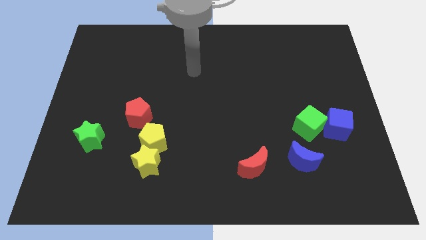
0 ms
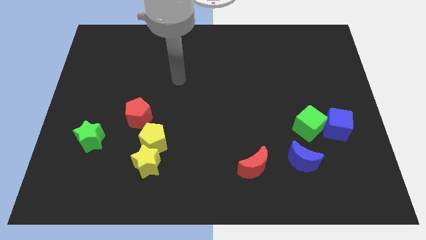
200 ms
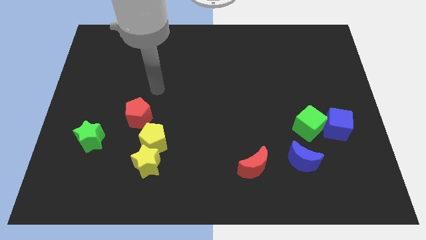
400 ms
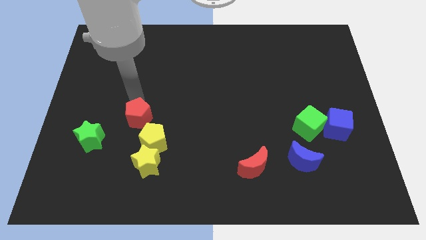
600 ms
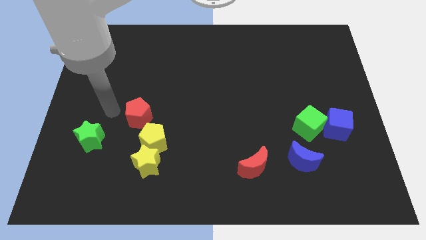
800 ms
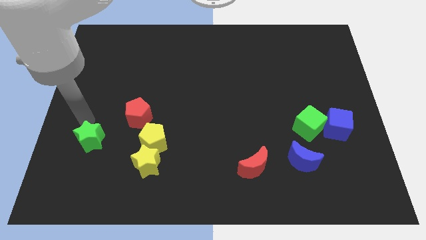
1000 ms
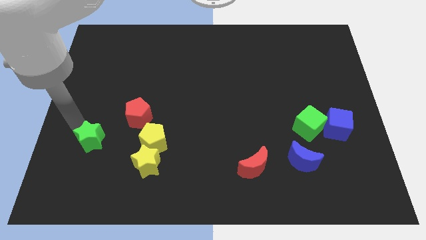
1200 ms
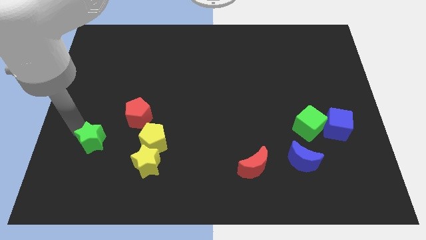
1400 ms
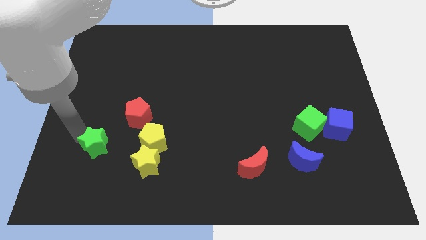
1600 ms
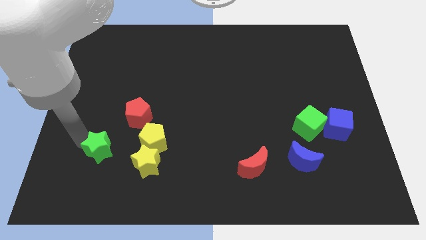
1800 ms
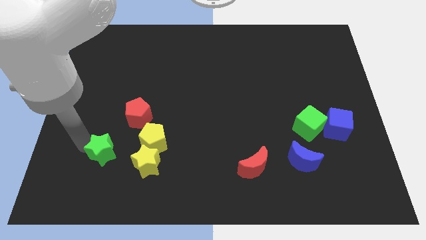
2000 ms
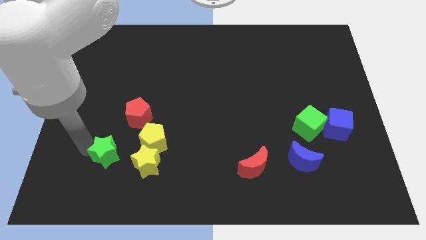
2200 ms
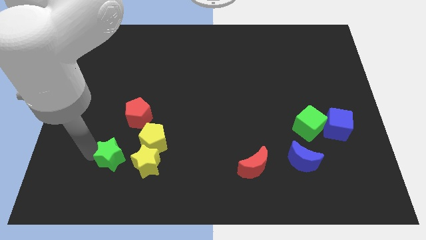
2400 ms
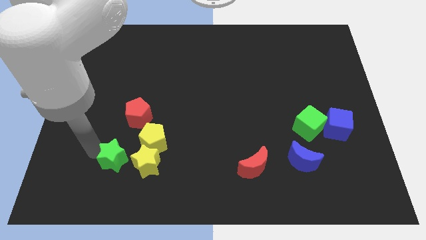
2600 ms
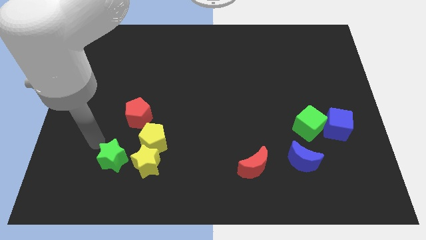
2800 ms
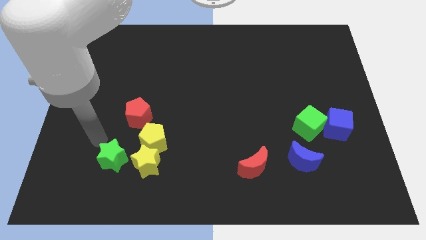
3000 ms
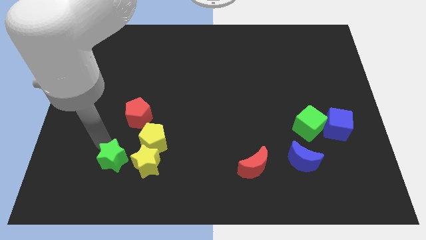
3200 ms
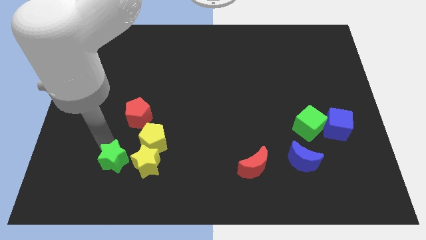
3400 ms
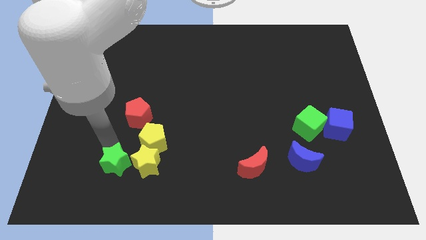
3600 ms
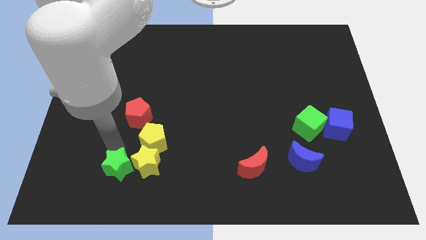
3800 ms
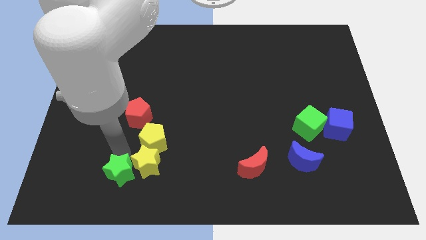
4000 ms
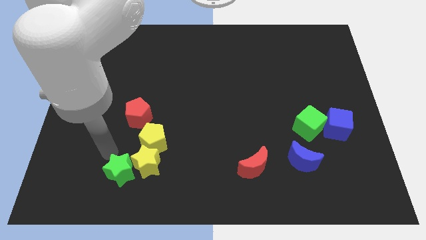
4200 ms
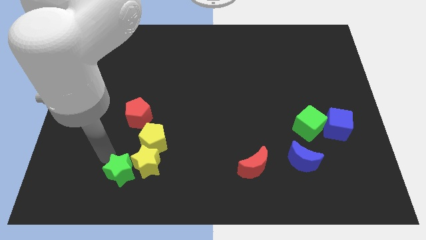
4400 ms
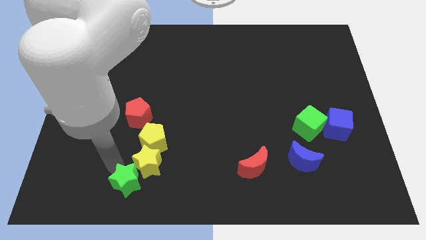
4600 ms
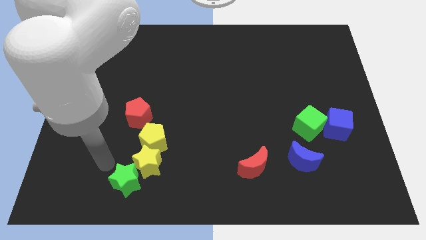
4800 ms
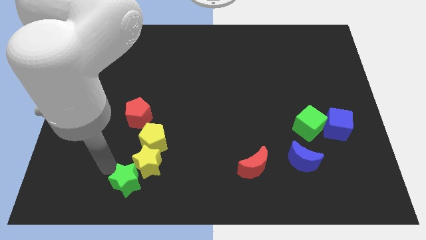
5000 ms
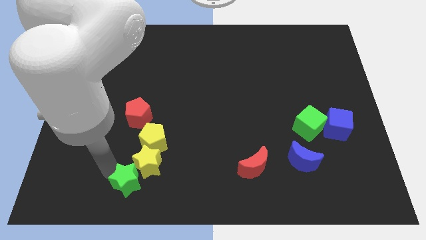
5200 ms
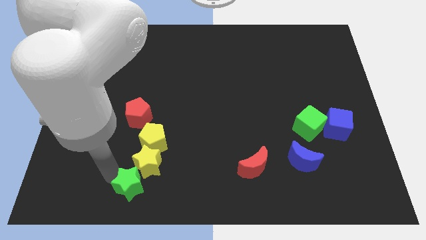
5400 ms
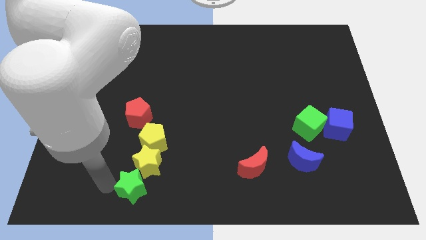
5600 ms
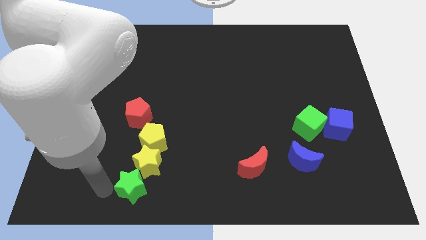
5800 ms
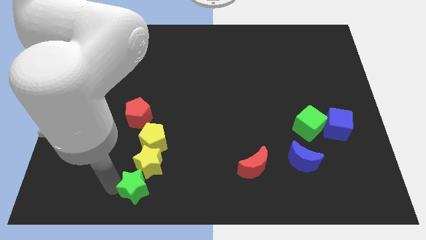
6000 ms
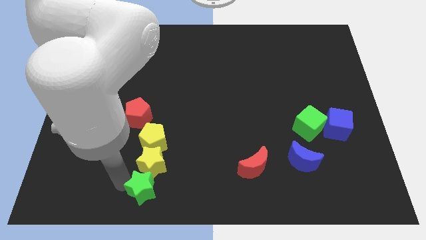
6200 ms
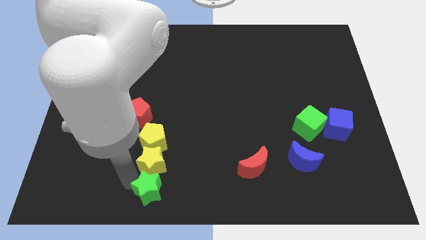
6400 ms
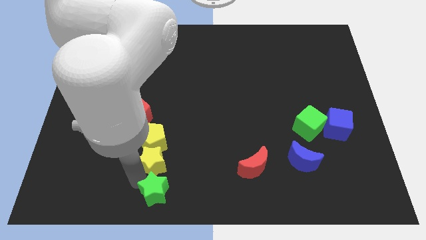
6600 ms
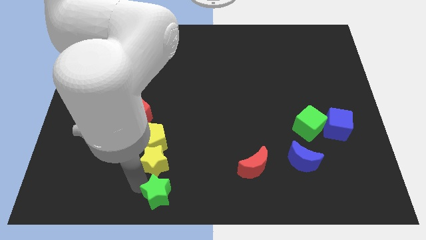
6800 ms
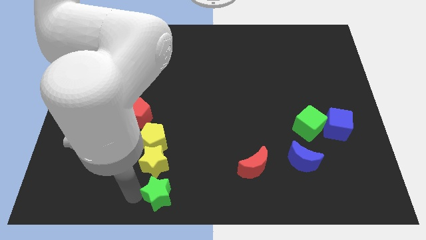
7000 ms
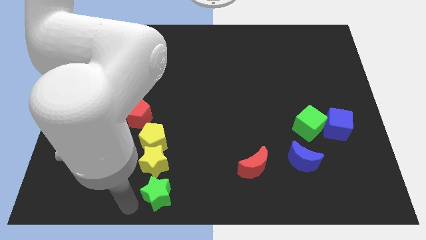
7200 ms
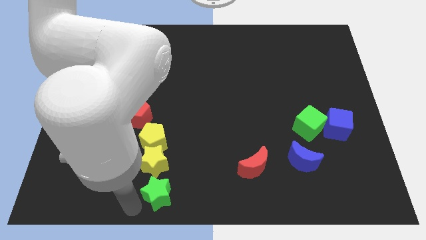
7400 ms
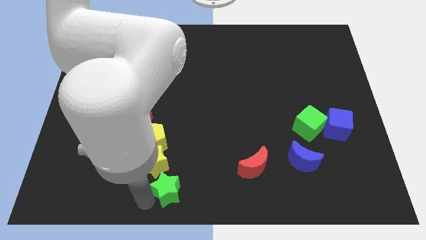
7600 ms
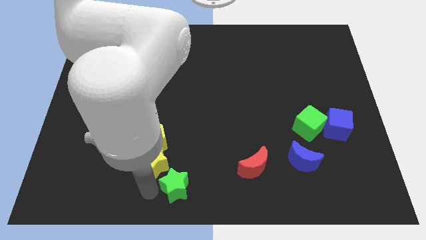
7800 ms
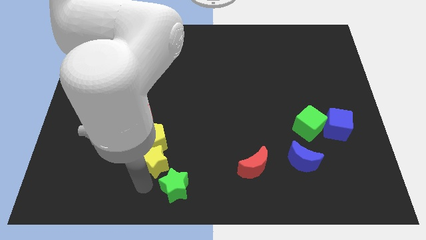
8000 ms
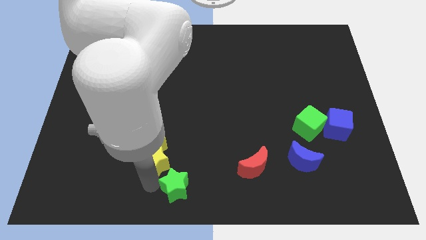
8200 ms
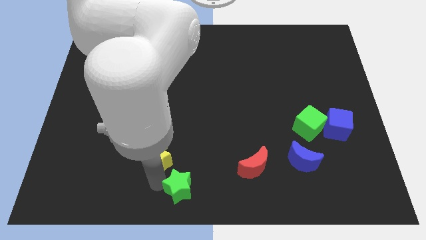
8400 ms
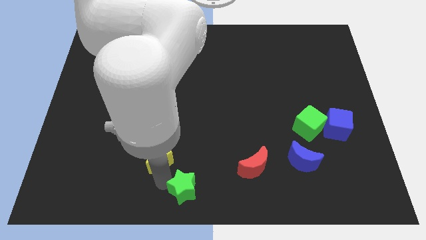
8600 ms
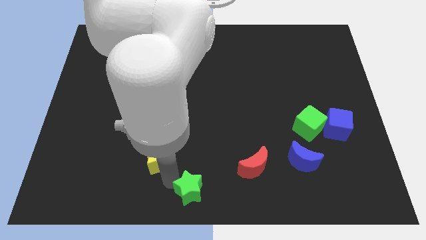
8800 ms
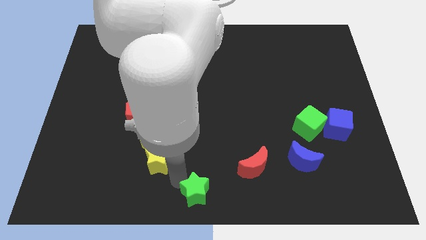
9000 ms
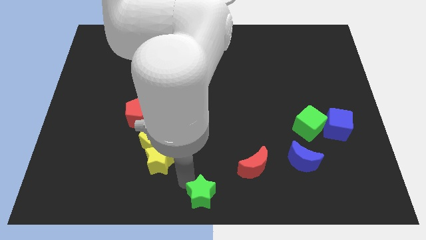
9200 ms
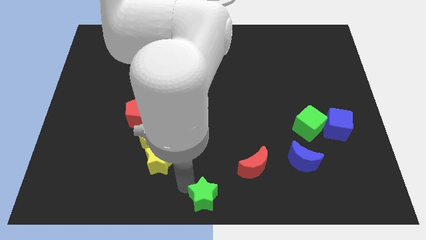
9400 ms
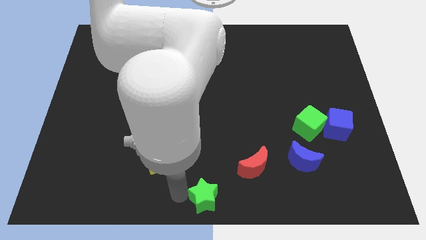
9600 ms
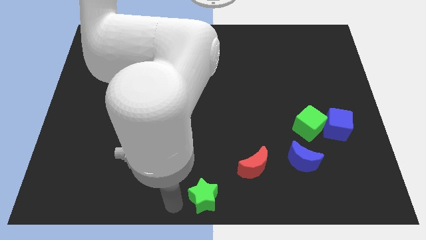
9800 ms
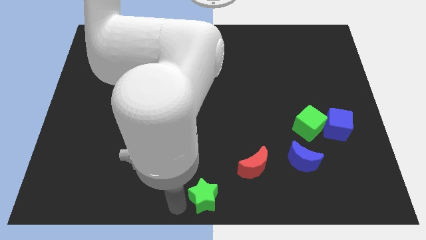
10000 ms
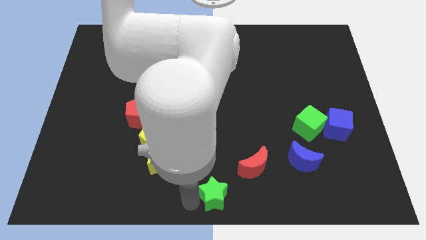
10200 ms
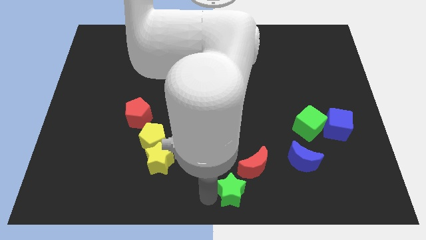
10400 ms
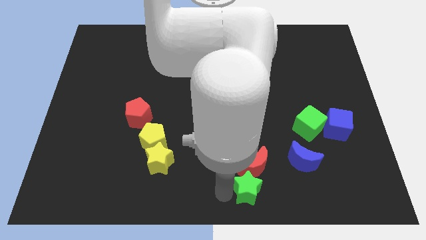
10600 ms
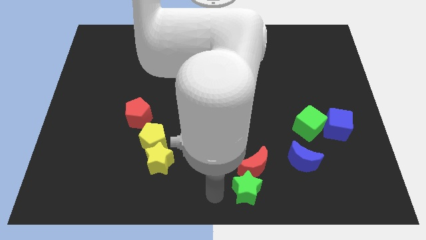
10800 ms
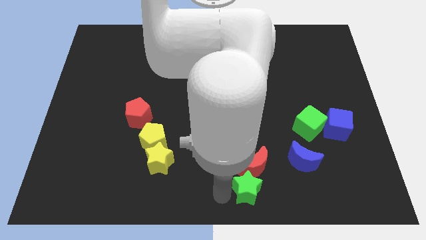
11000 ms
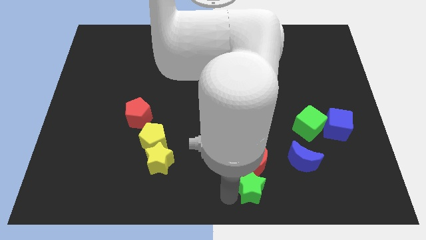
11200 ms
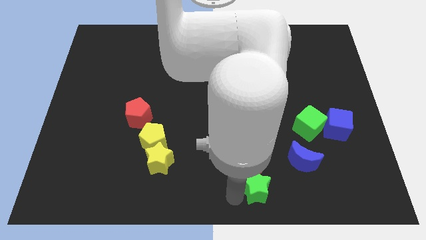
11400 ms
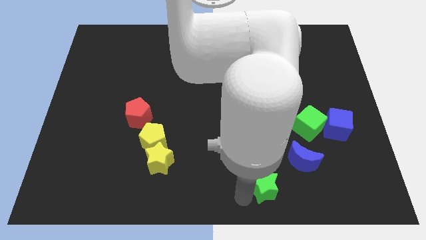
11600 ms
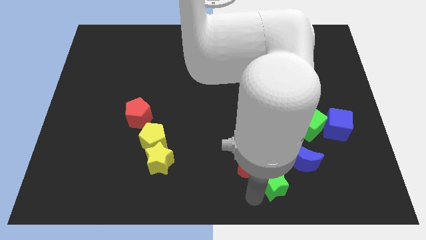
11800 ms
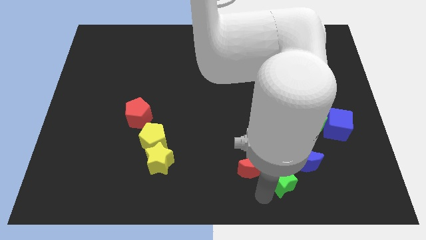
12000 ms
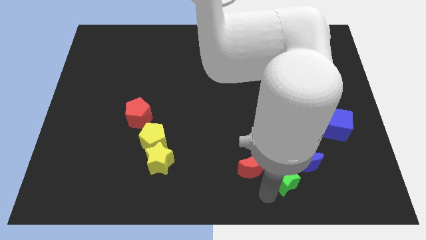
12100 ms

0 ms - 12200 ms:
slide the green star towards the blue moon

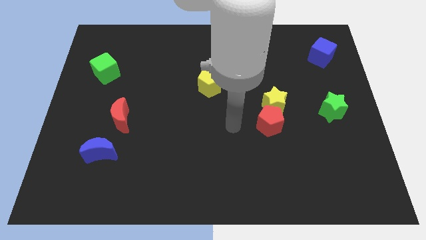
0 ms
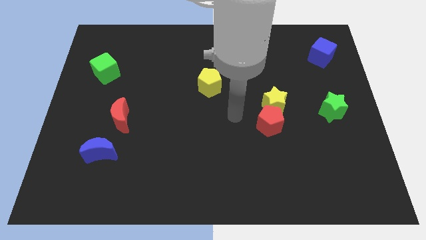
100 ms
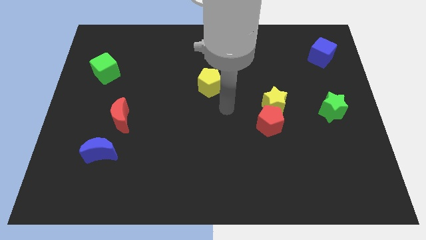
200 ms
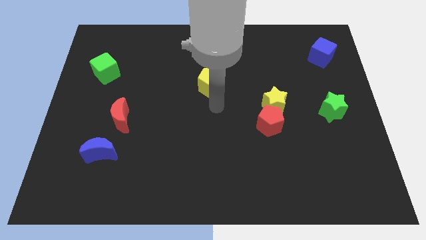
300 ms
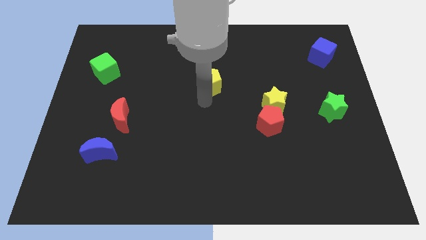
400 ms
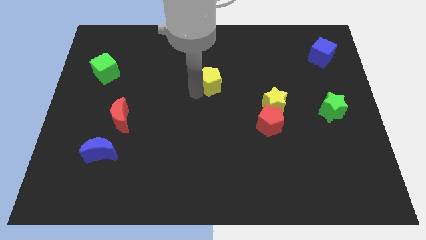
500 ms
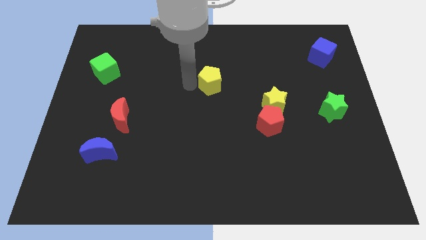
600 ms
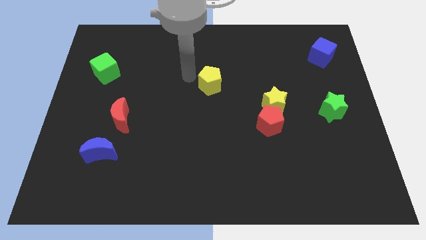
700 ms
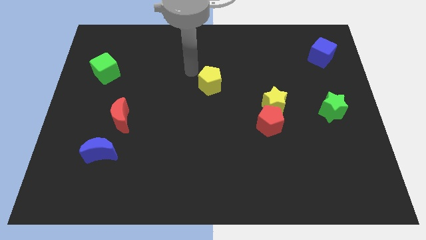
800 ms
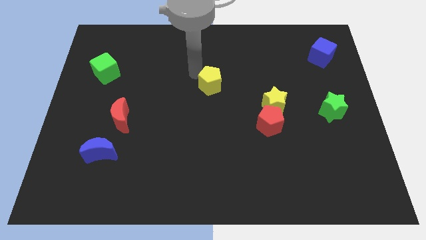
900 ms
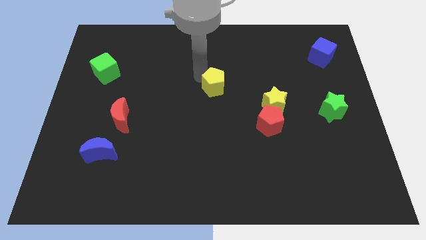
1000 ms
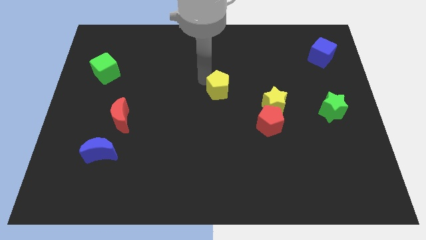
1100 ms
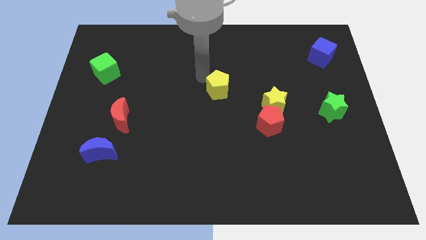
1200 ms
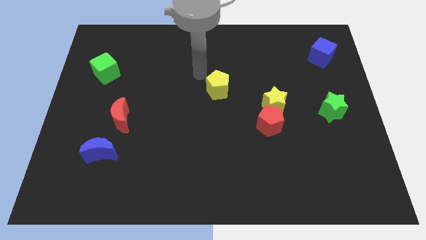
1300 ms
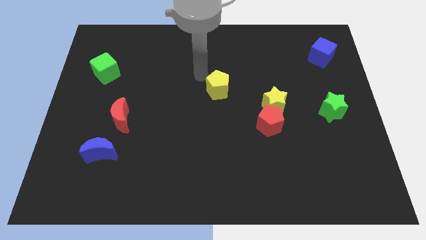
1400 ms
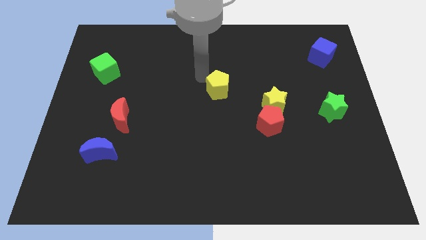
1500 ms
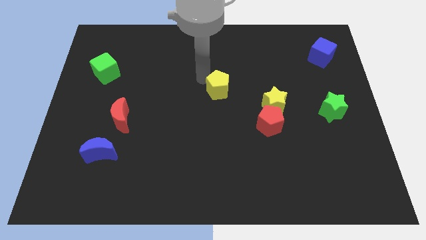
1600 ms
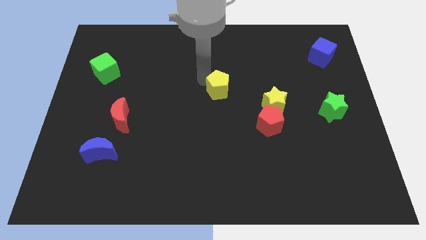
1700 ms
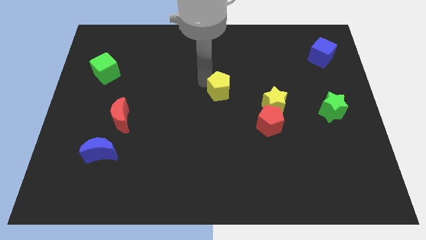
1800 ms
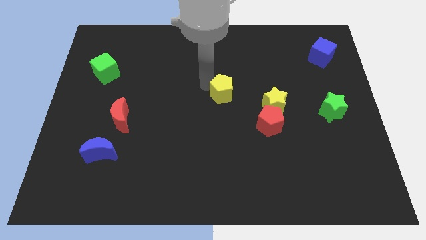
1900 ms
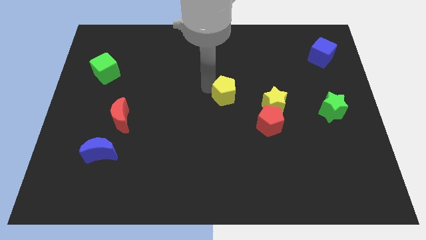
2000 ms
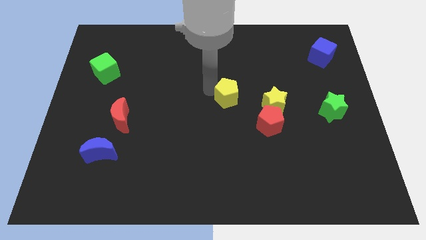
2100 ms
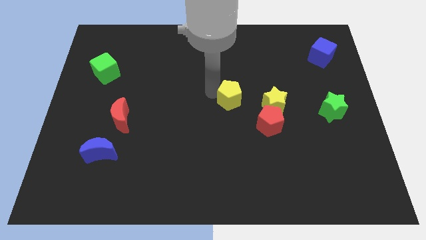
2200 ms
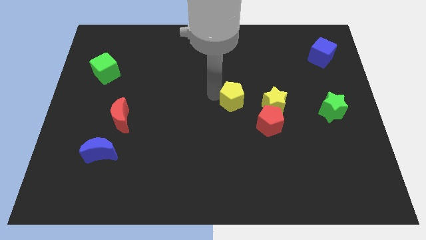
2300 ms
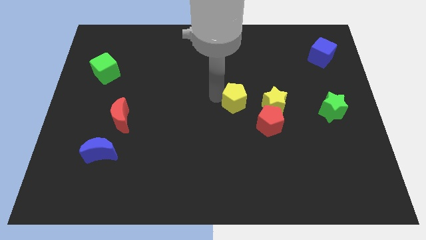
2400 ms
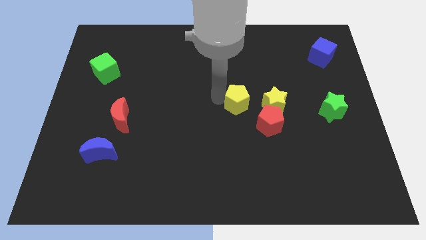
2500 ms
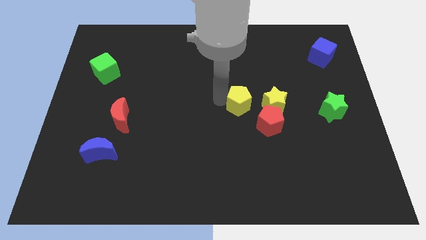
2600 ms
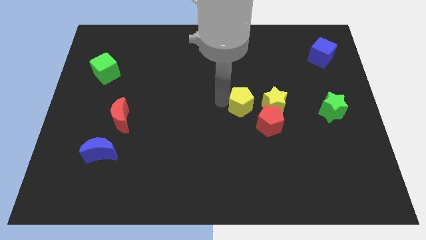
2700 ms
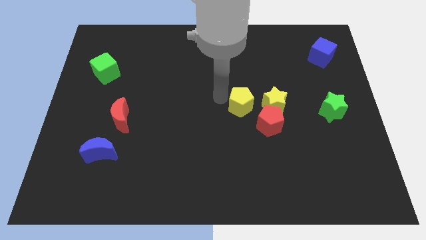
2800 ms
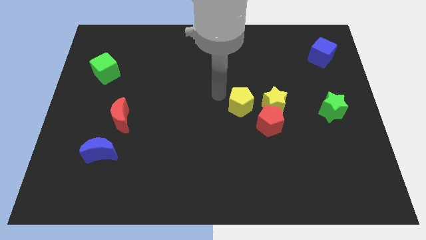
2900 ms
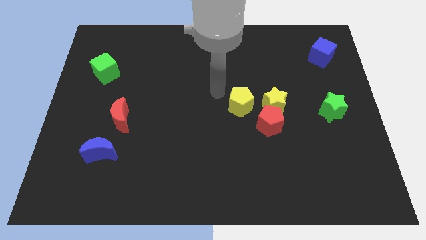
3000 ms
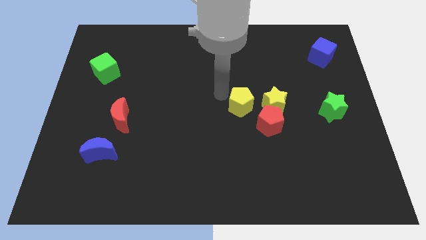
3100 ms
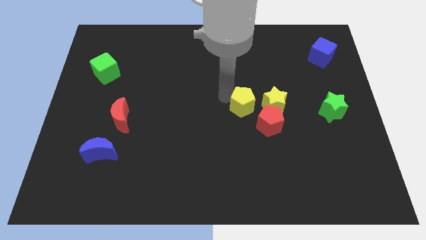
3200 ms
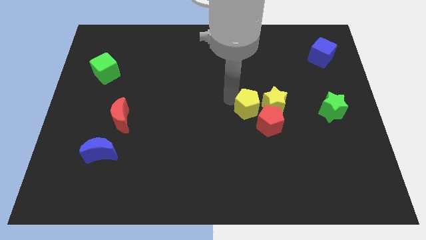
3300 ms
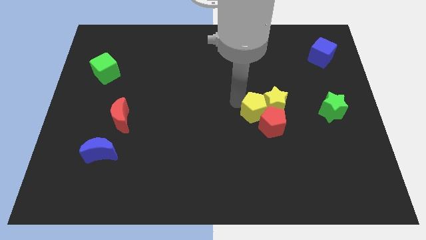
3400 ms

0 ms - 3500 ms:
push the yellow pentagon close to the red pentagon
